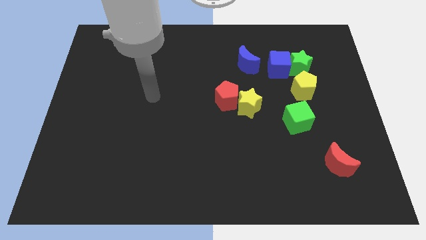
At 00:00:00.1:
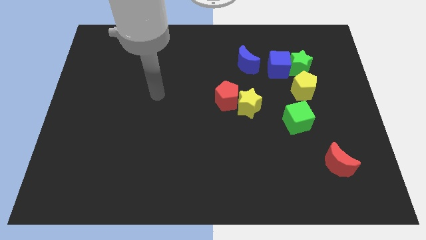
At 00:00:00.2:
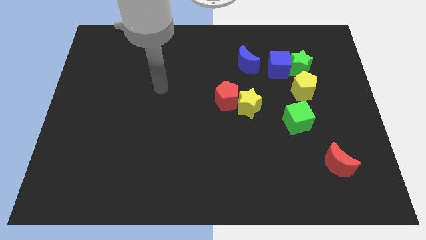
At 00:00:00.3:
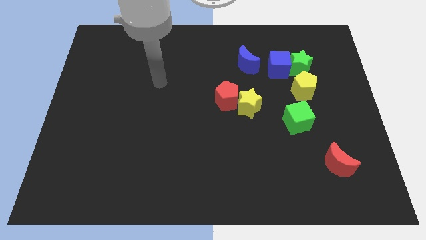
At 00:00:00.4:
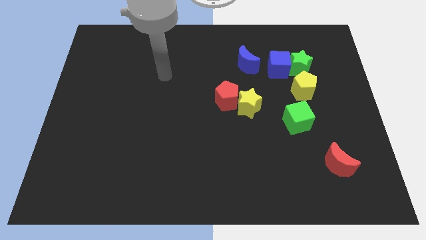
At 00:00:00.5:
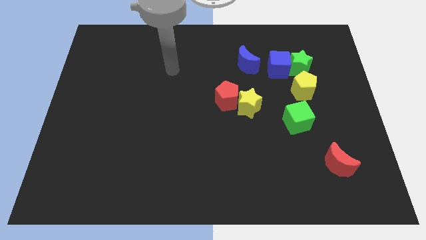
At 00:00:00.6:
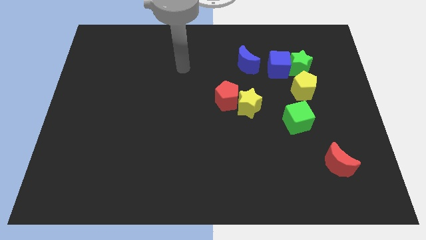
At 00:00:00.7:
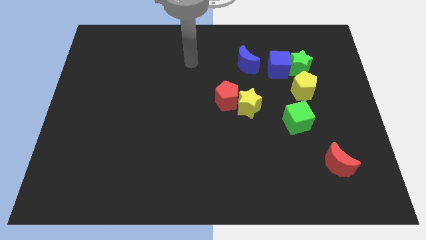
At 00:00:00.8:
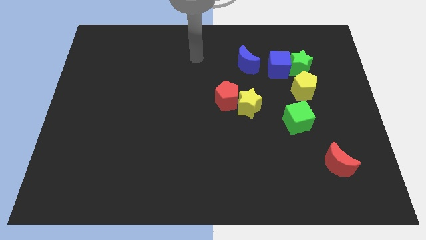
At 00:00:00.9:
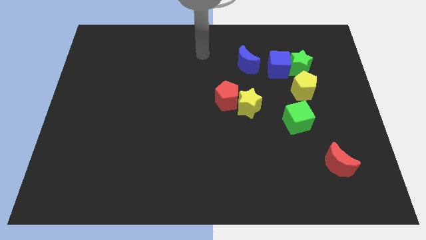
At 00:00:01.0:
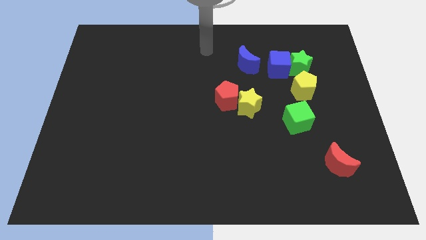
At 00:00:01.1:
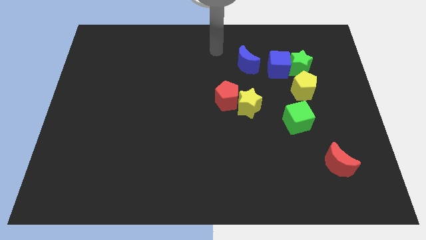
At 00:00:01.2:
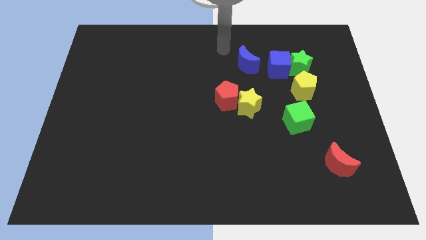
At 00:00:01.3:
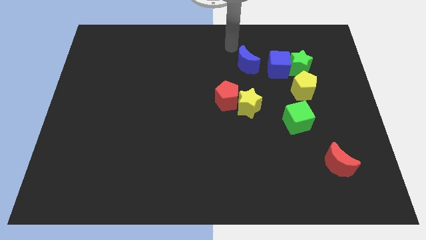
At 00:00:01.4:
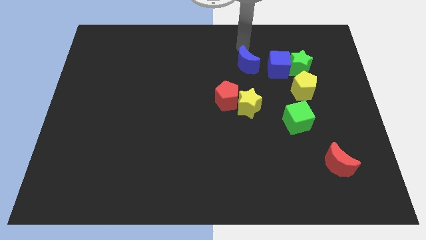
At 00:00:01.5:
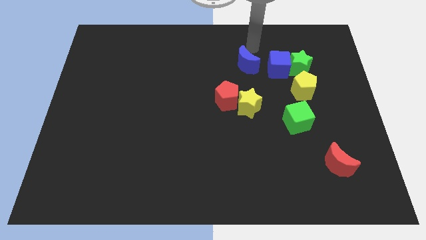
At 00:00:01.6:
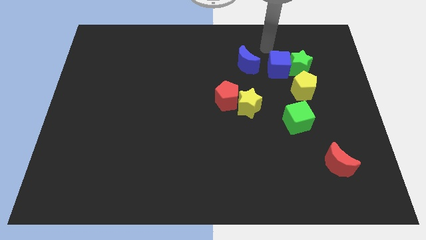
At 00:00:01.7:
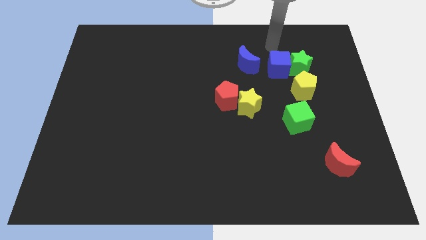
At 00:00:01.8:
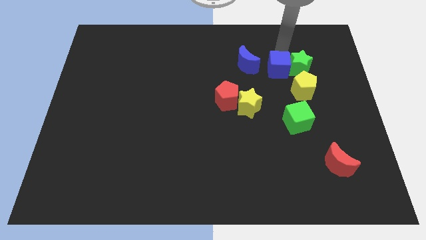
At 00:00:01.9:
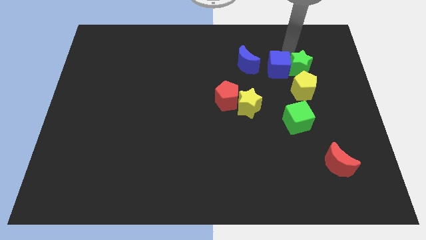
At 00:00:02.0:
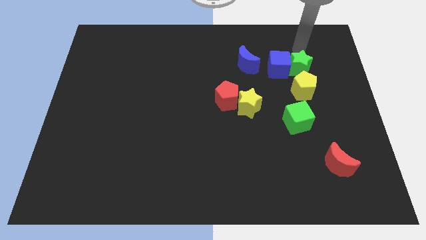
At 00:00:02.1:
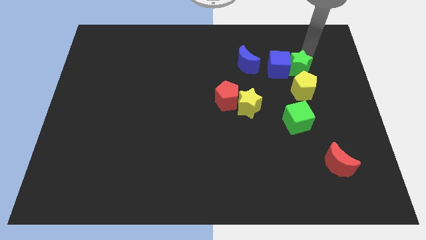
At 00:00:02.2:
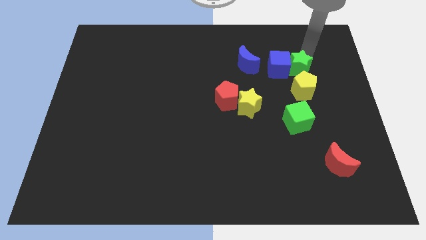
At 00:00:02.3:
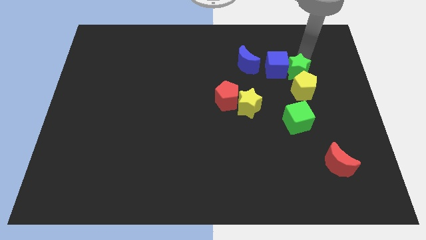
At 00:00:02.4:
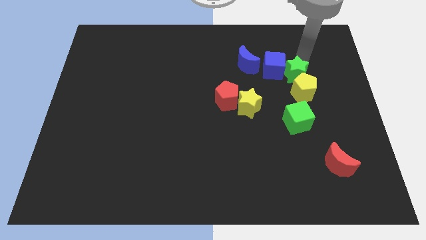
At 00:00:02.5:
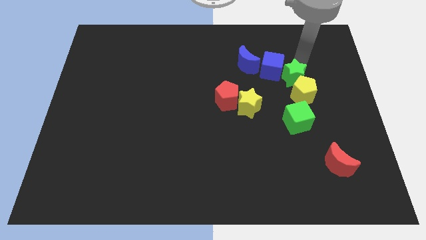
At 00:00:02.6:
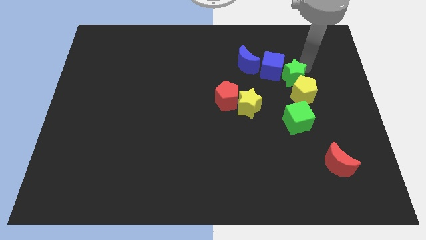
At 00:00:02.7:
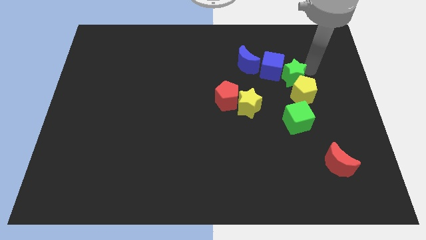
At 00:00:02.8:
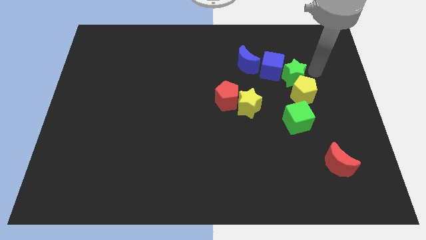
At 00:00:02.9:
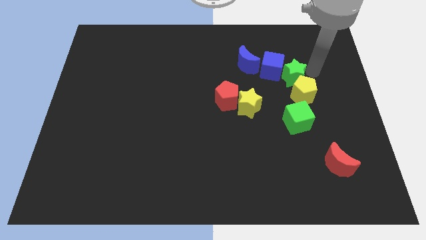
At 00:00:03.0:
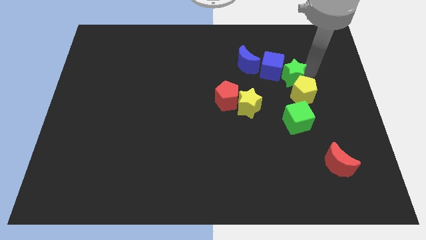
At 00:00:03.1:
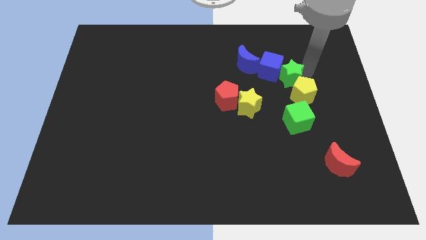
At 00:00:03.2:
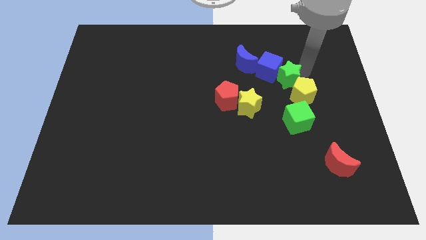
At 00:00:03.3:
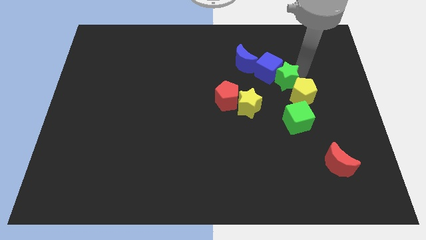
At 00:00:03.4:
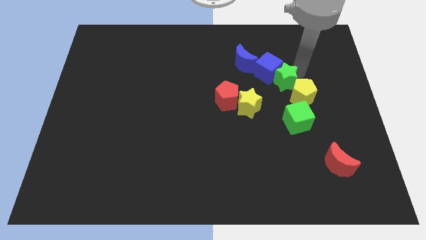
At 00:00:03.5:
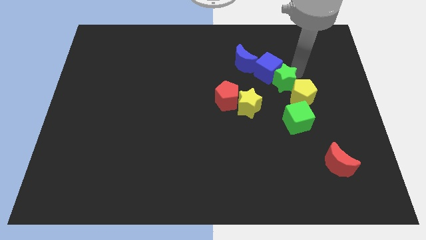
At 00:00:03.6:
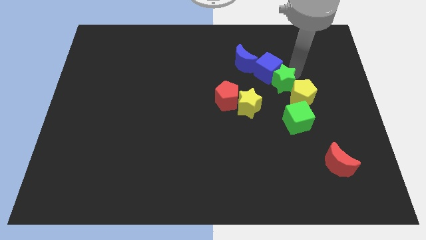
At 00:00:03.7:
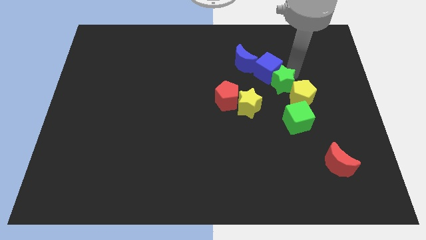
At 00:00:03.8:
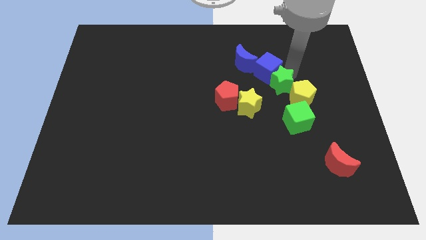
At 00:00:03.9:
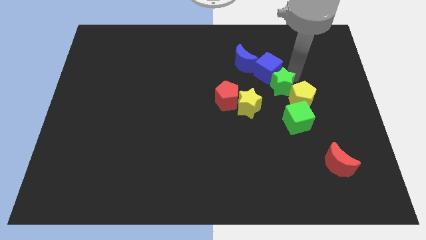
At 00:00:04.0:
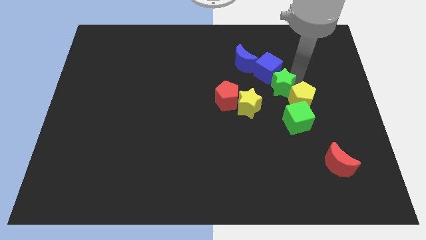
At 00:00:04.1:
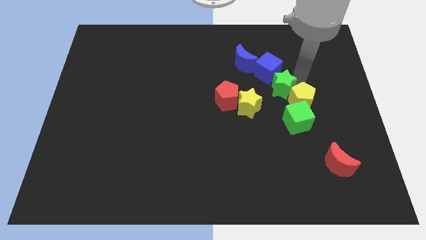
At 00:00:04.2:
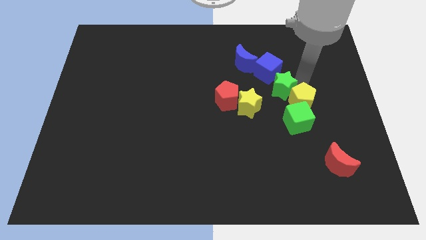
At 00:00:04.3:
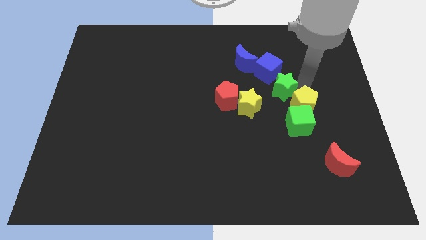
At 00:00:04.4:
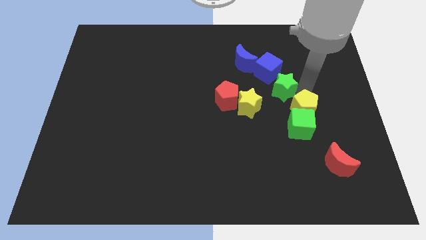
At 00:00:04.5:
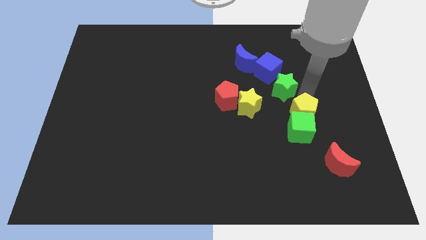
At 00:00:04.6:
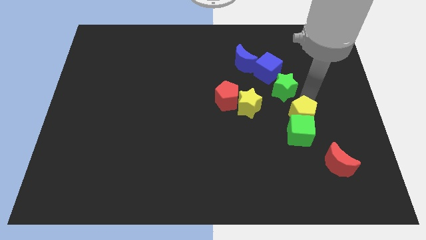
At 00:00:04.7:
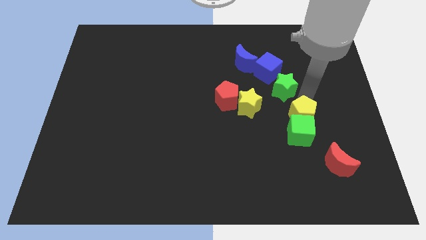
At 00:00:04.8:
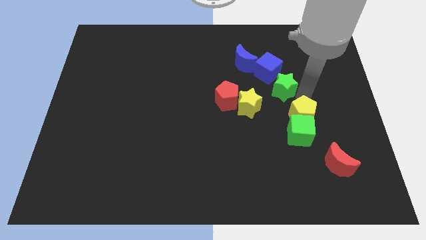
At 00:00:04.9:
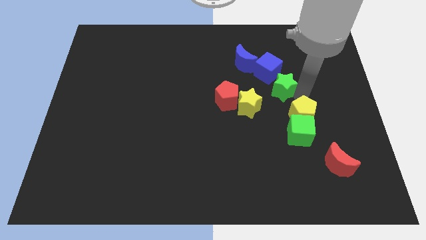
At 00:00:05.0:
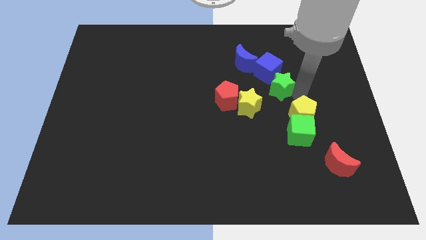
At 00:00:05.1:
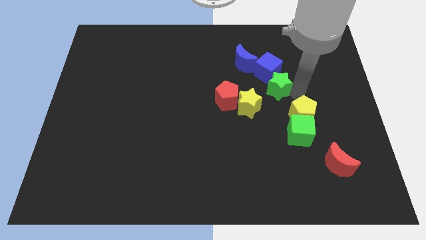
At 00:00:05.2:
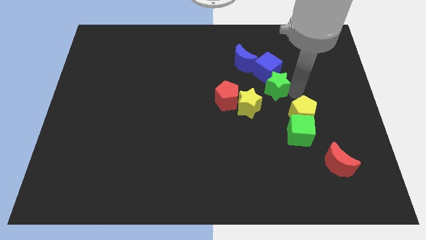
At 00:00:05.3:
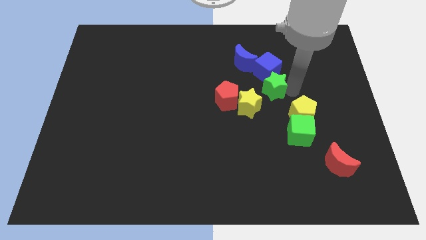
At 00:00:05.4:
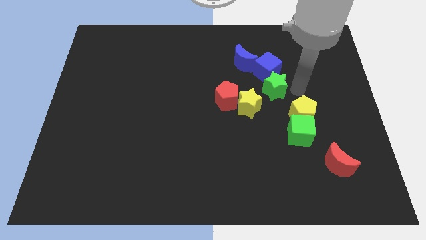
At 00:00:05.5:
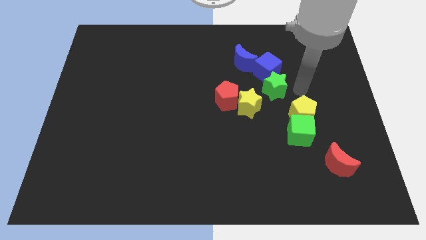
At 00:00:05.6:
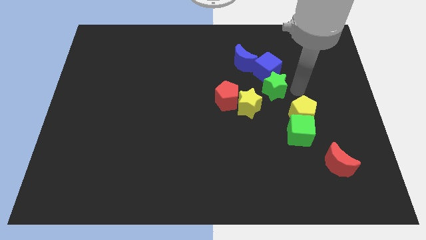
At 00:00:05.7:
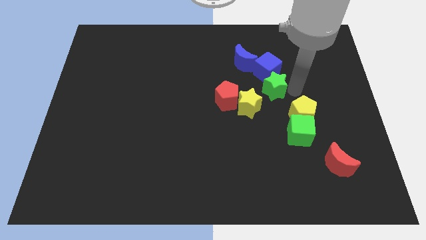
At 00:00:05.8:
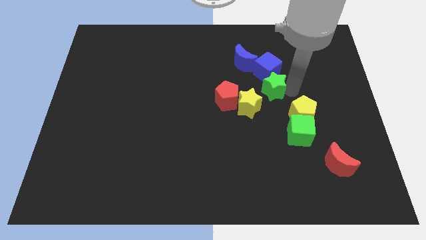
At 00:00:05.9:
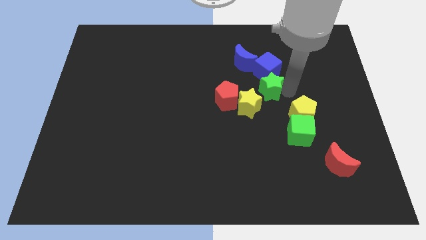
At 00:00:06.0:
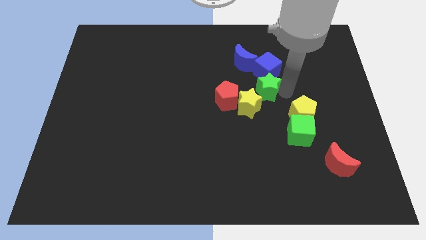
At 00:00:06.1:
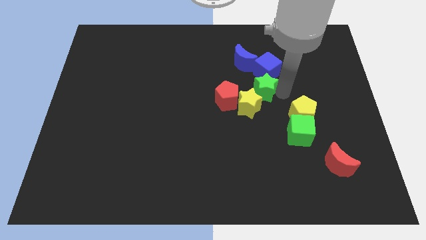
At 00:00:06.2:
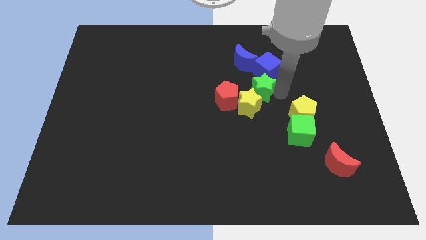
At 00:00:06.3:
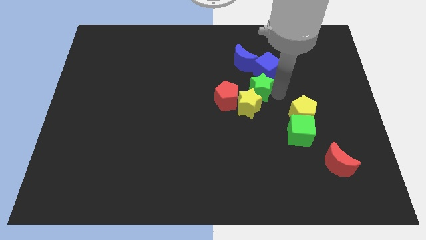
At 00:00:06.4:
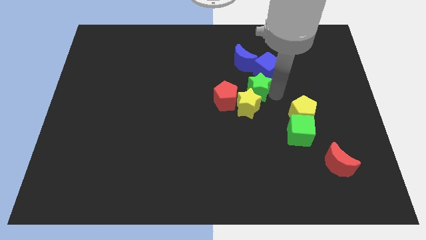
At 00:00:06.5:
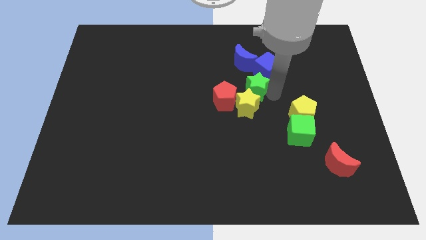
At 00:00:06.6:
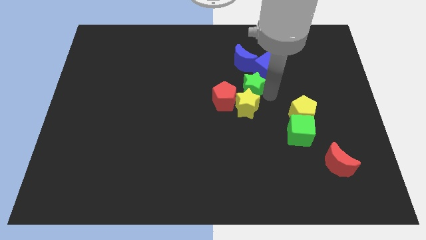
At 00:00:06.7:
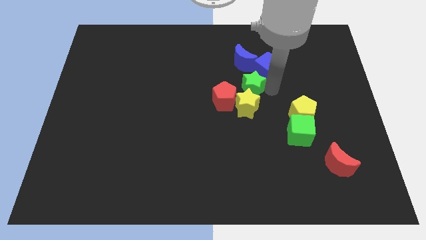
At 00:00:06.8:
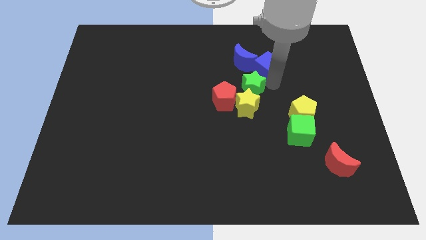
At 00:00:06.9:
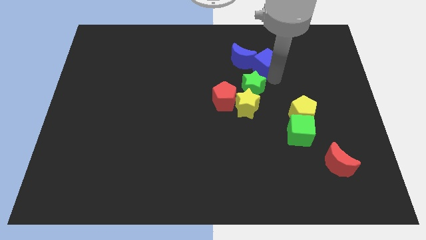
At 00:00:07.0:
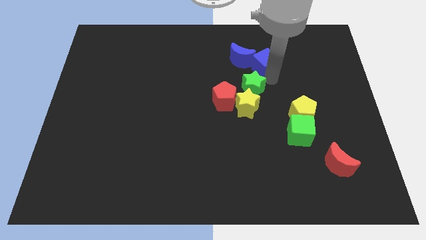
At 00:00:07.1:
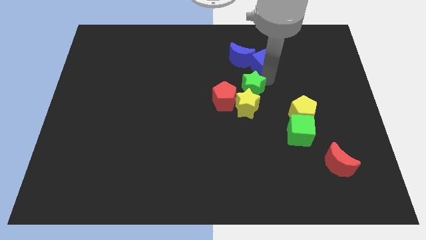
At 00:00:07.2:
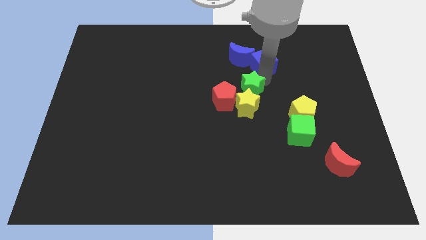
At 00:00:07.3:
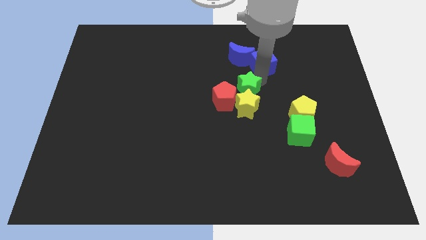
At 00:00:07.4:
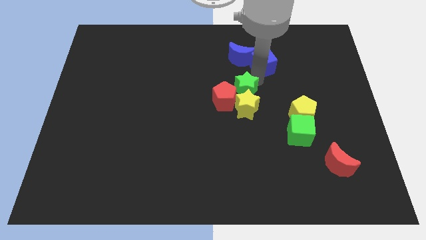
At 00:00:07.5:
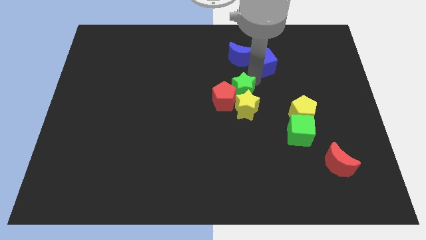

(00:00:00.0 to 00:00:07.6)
move the green star to the red pentagon

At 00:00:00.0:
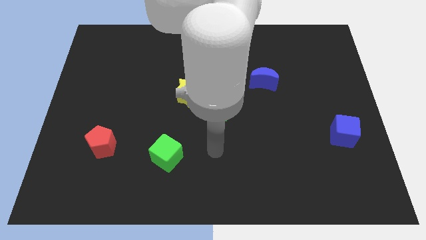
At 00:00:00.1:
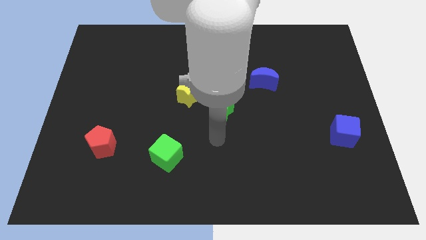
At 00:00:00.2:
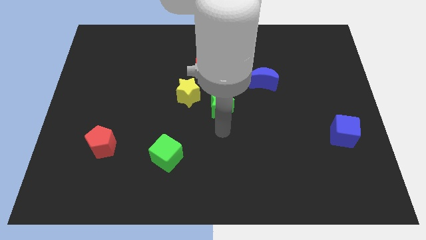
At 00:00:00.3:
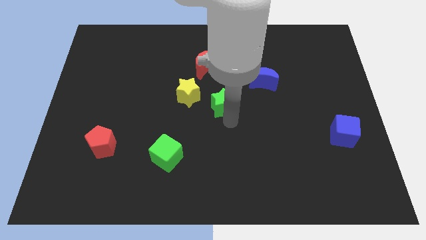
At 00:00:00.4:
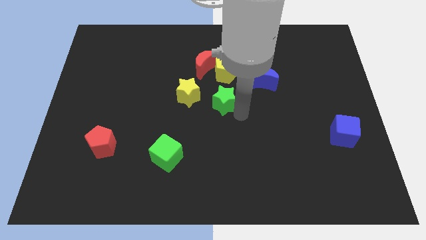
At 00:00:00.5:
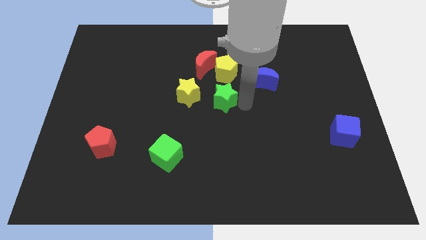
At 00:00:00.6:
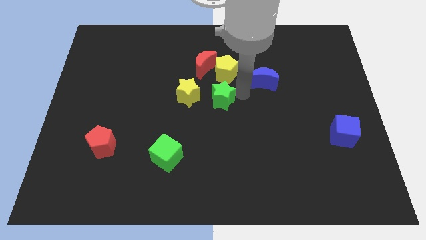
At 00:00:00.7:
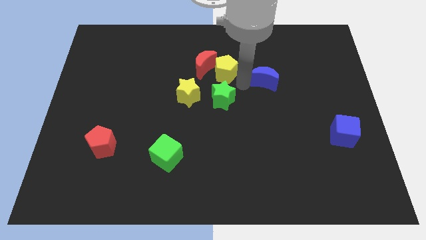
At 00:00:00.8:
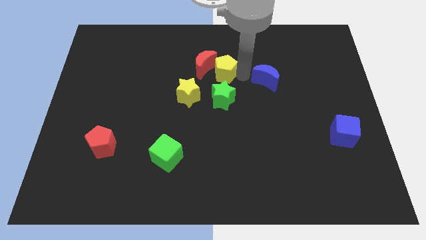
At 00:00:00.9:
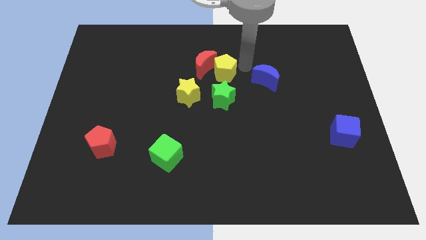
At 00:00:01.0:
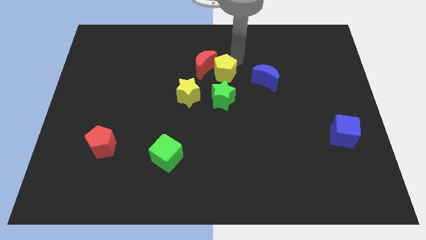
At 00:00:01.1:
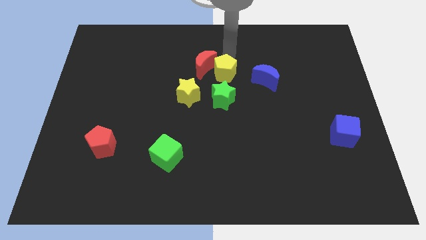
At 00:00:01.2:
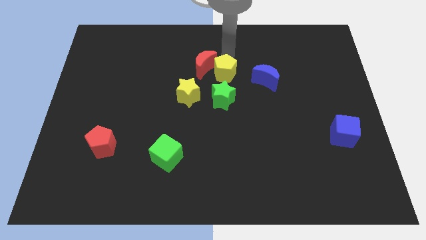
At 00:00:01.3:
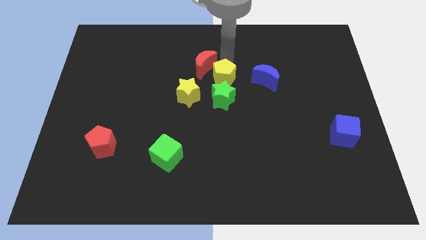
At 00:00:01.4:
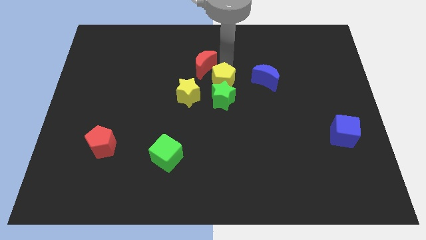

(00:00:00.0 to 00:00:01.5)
slide the yellow pentagon close to the green star
